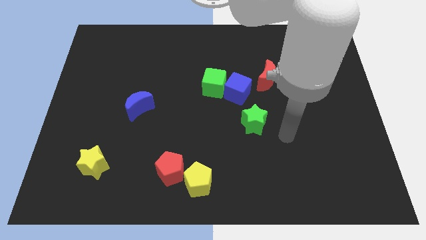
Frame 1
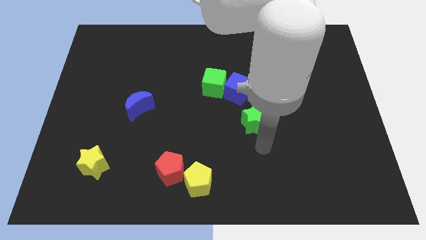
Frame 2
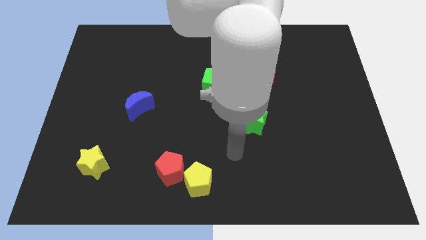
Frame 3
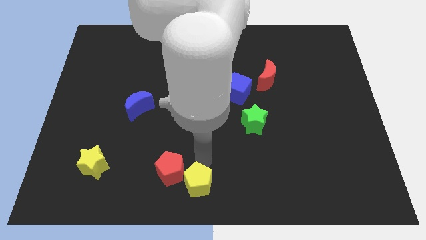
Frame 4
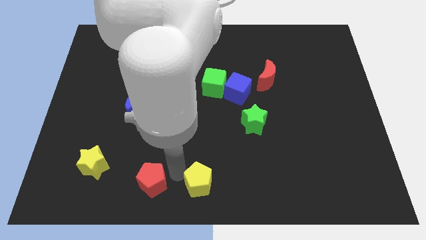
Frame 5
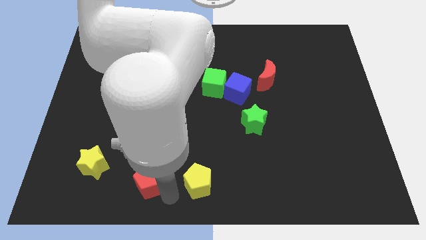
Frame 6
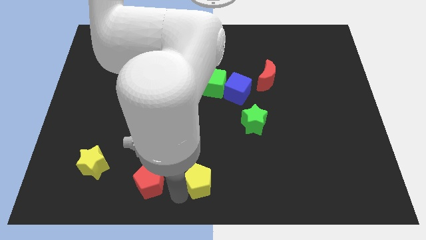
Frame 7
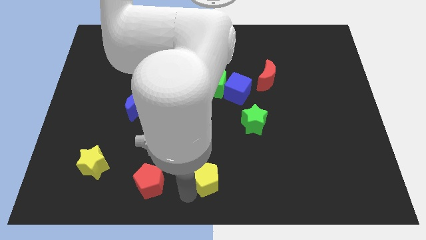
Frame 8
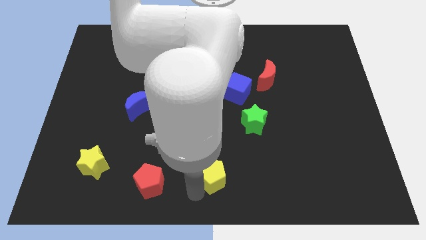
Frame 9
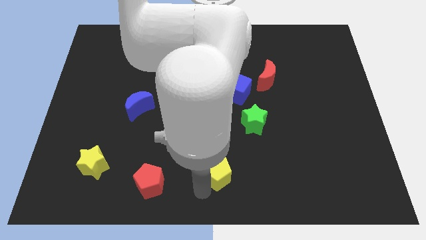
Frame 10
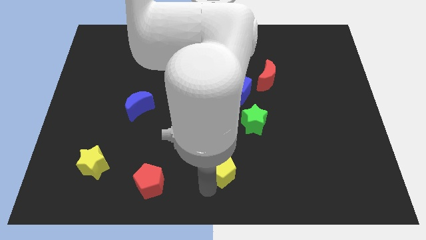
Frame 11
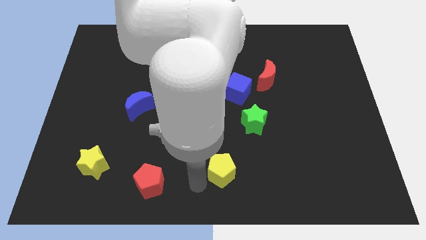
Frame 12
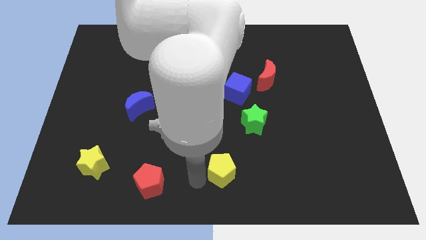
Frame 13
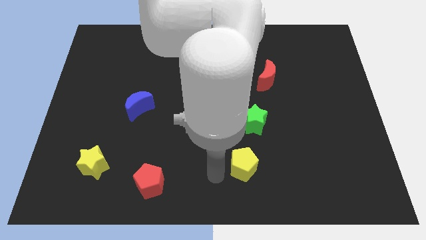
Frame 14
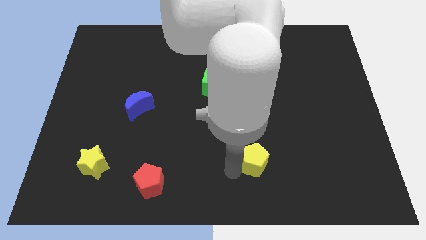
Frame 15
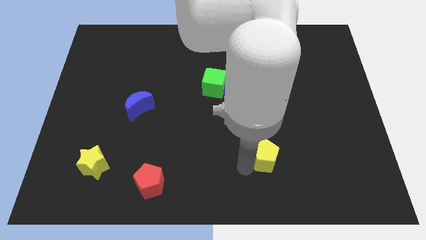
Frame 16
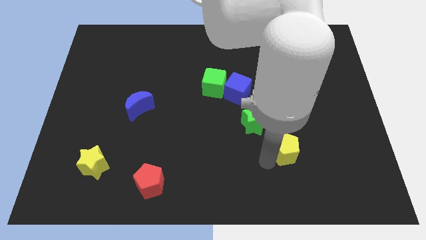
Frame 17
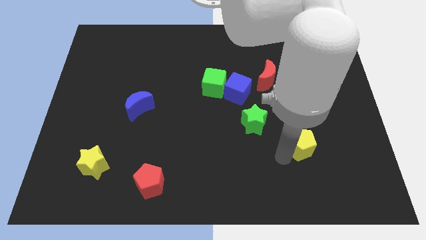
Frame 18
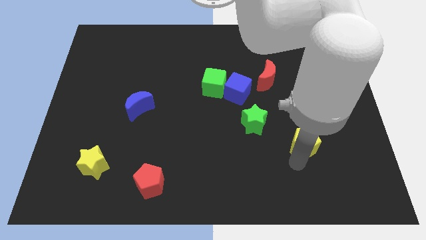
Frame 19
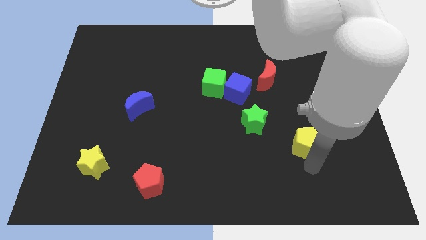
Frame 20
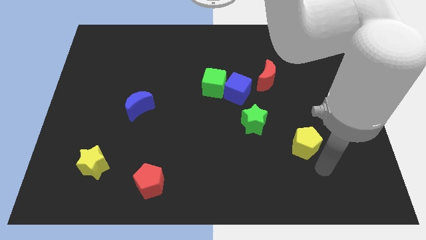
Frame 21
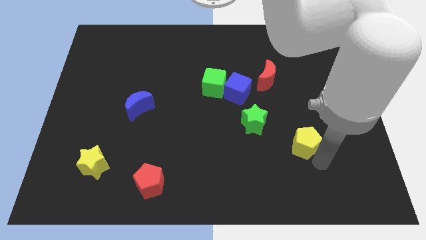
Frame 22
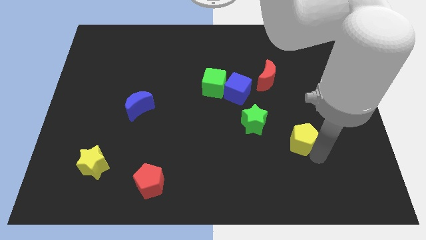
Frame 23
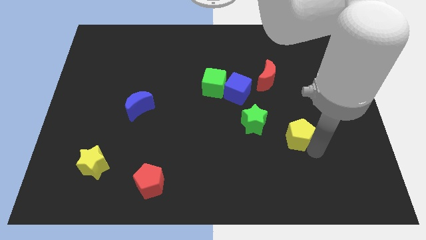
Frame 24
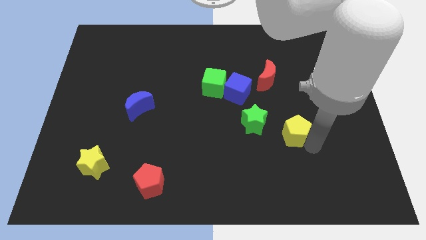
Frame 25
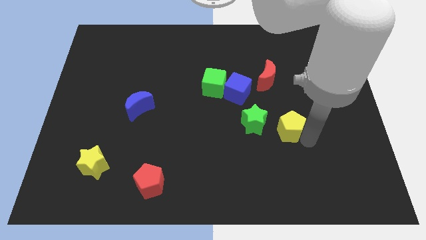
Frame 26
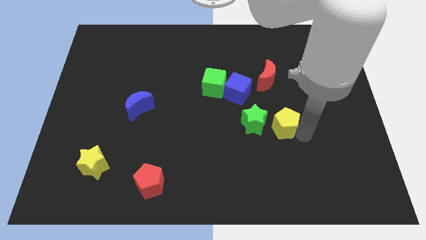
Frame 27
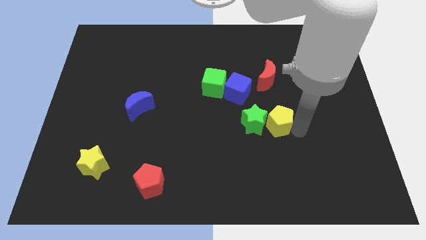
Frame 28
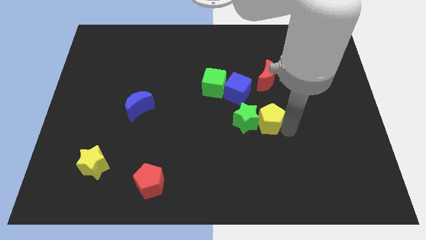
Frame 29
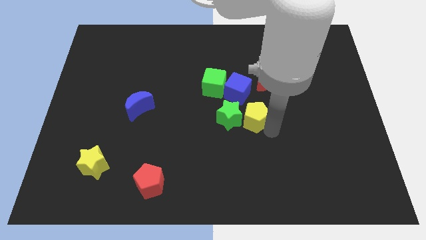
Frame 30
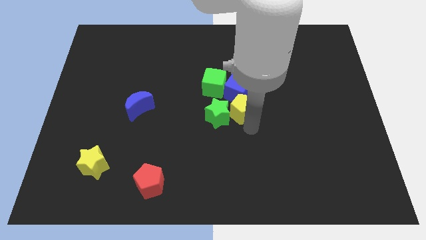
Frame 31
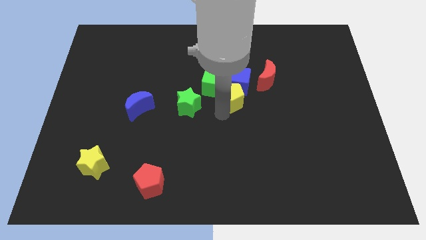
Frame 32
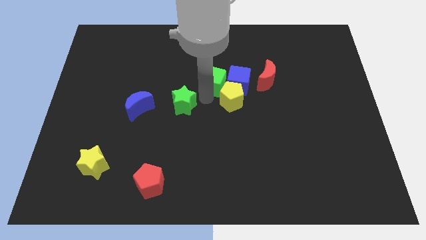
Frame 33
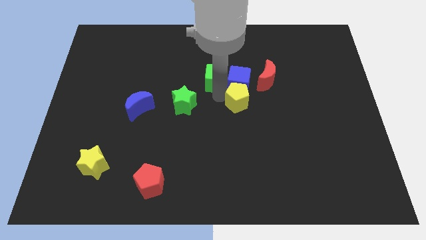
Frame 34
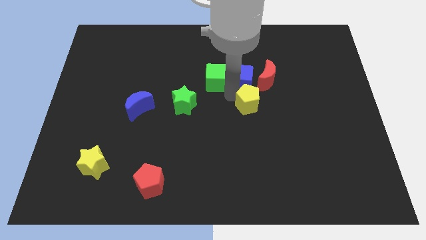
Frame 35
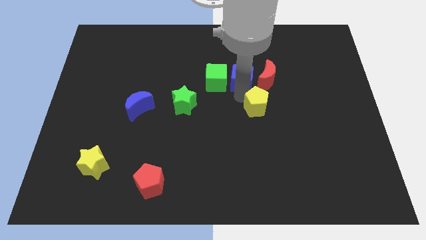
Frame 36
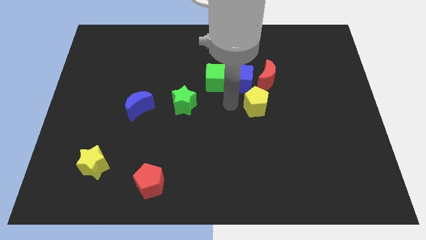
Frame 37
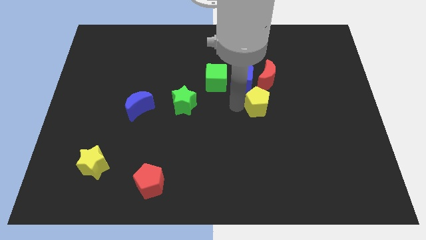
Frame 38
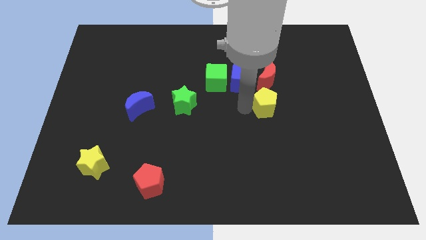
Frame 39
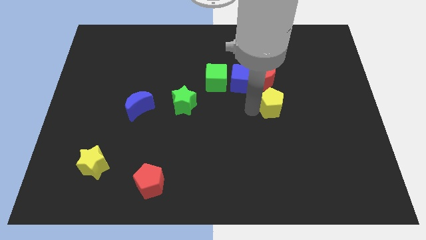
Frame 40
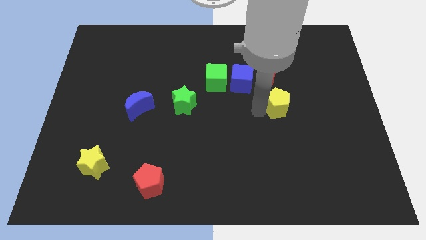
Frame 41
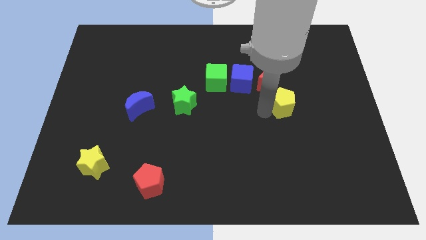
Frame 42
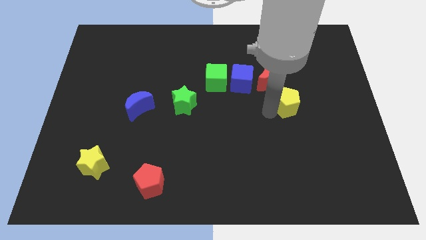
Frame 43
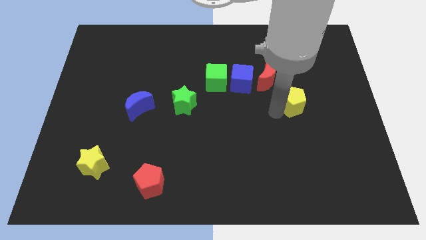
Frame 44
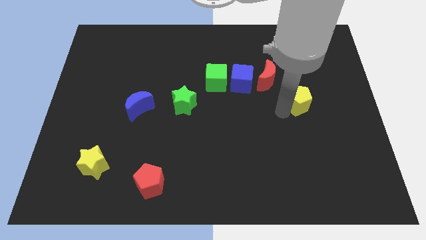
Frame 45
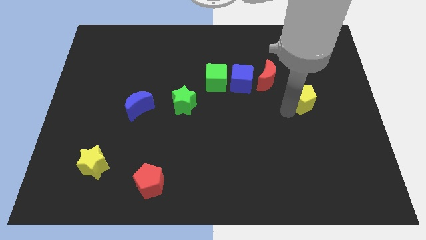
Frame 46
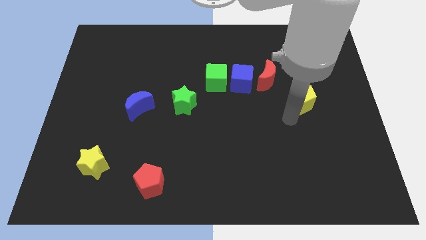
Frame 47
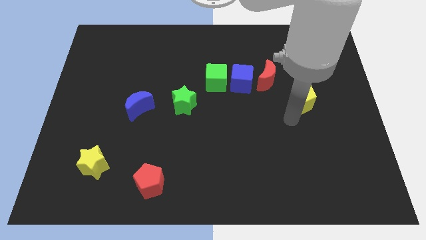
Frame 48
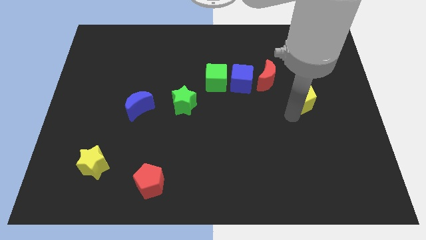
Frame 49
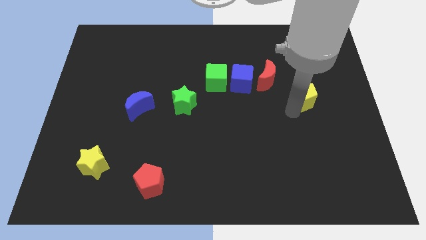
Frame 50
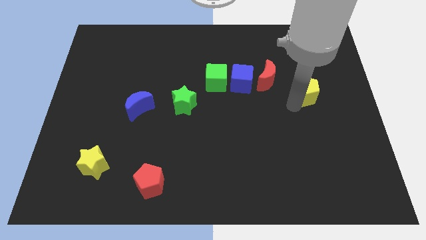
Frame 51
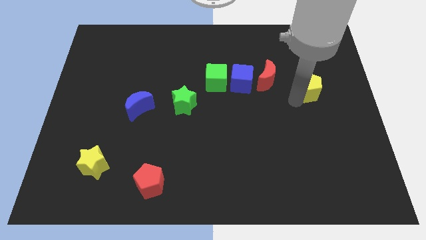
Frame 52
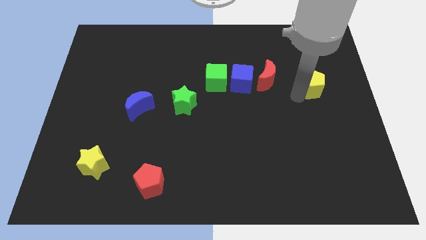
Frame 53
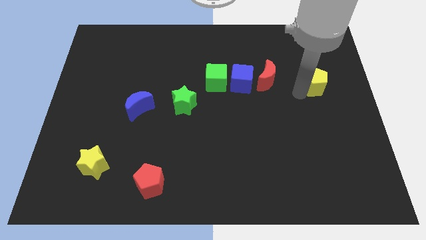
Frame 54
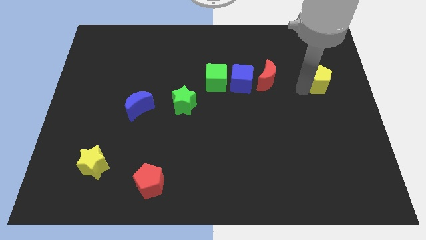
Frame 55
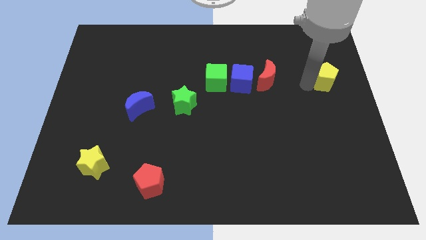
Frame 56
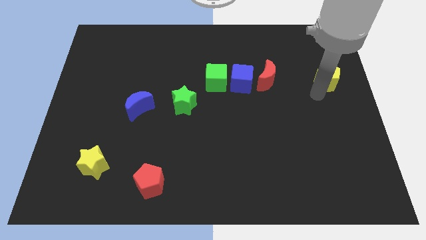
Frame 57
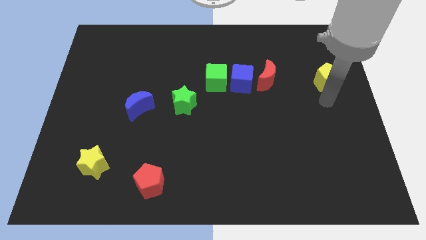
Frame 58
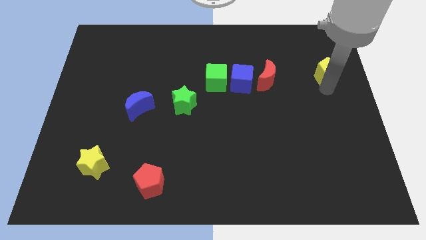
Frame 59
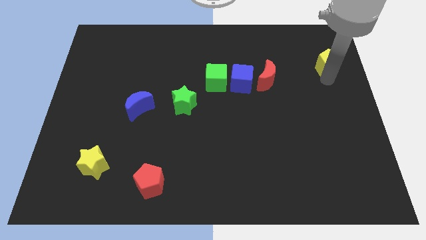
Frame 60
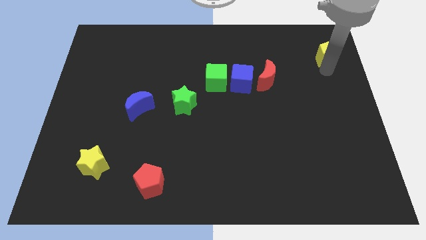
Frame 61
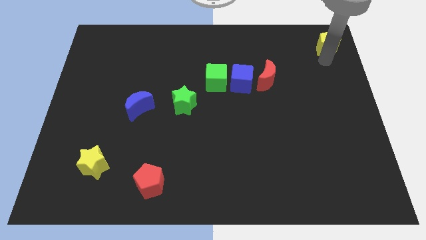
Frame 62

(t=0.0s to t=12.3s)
put the yellow pentagon to the upper right corner
